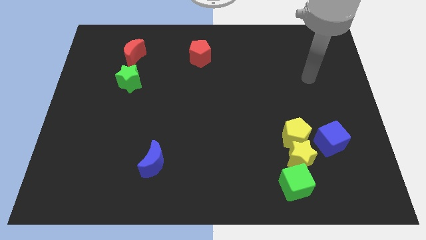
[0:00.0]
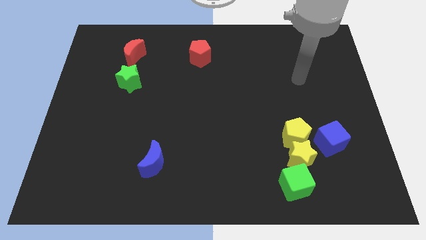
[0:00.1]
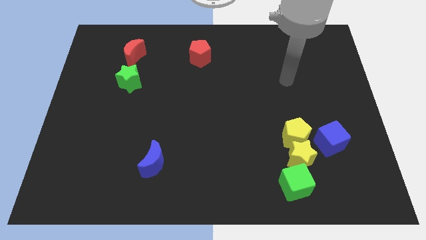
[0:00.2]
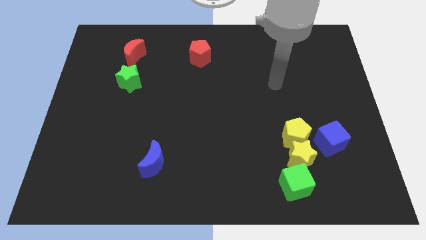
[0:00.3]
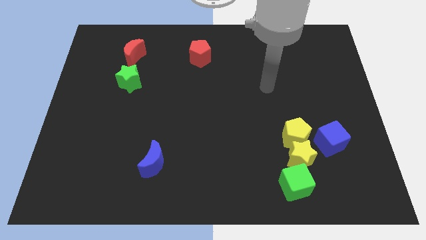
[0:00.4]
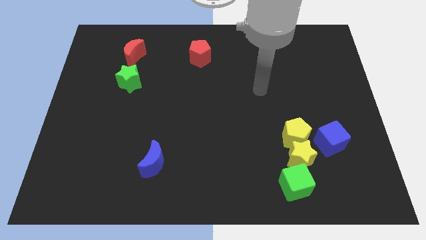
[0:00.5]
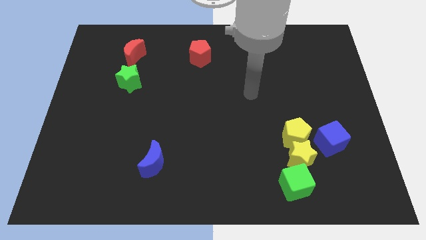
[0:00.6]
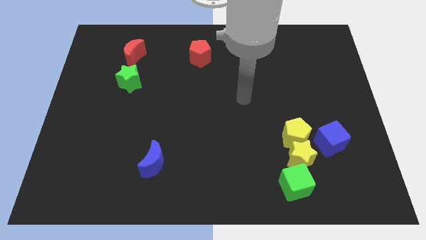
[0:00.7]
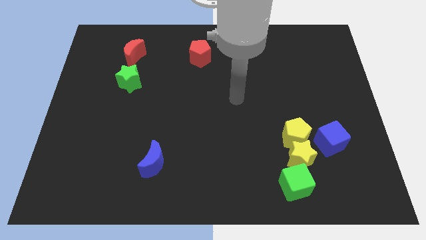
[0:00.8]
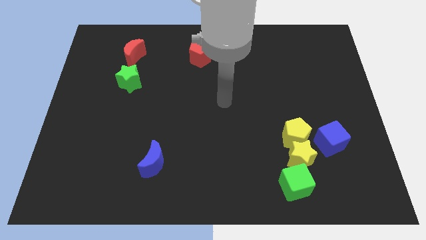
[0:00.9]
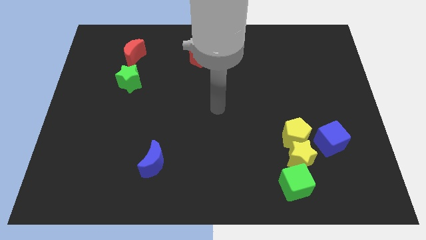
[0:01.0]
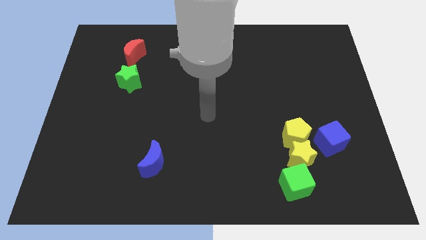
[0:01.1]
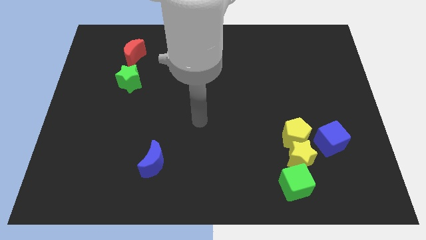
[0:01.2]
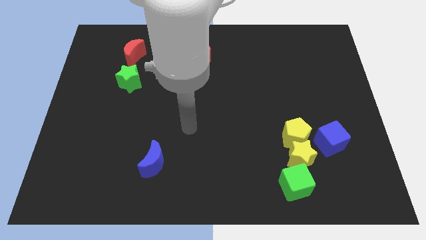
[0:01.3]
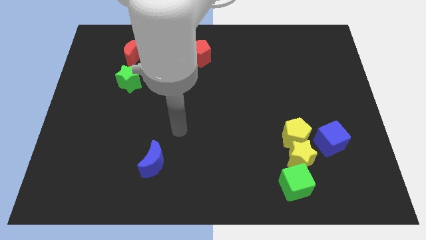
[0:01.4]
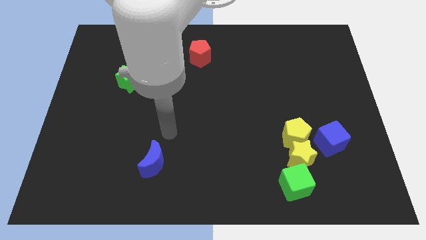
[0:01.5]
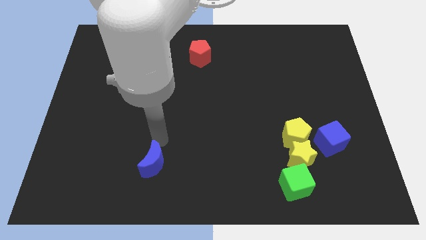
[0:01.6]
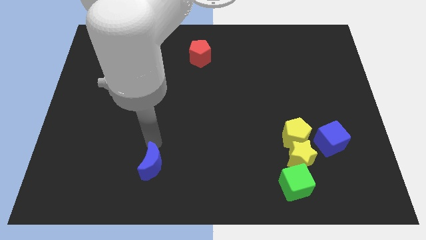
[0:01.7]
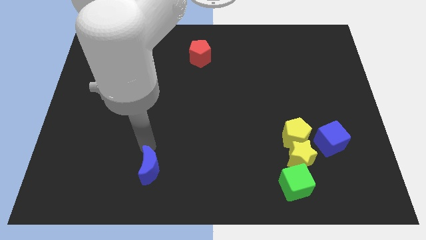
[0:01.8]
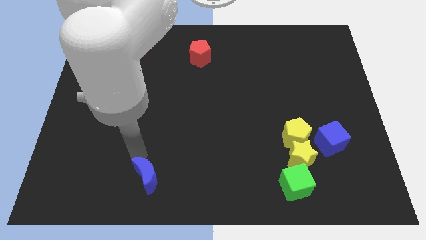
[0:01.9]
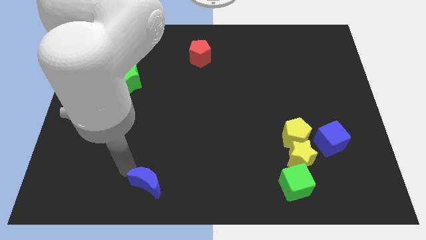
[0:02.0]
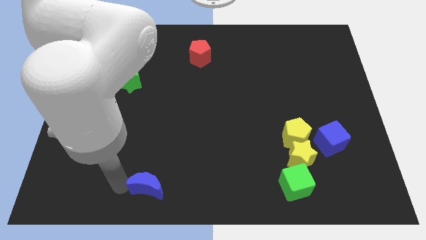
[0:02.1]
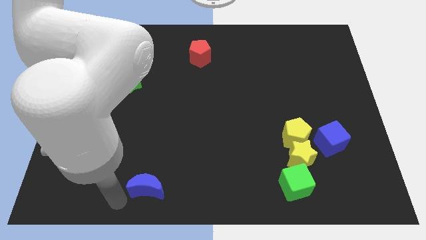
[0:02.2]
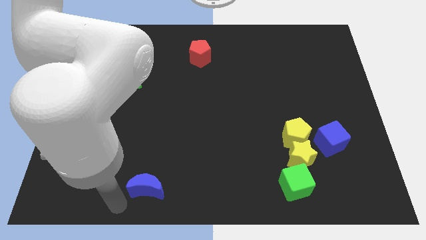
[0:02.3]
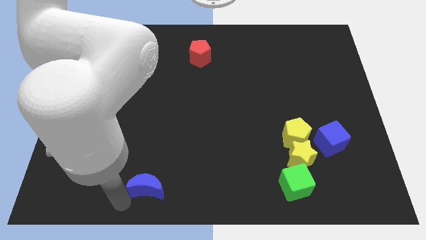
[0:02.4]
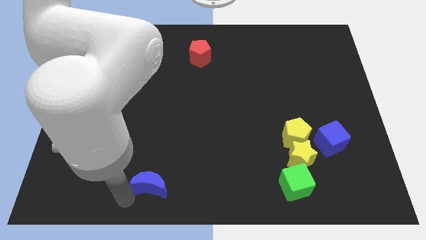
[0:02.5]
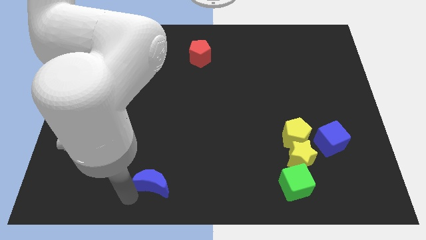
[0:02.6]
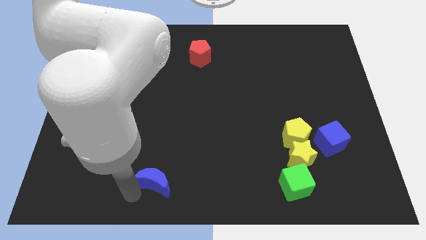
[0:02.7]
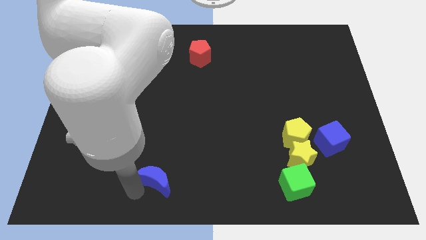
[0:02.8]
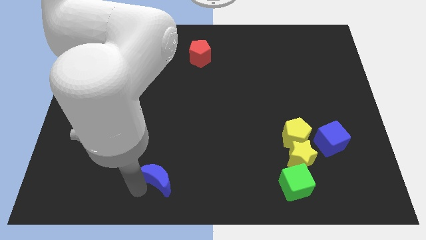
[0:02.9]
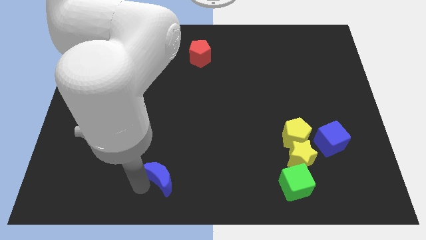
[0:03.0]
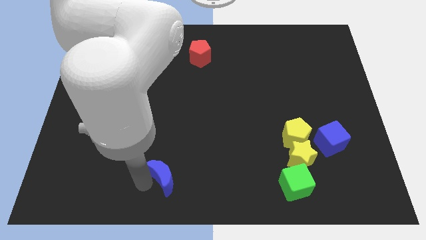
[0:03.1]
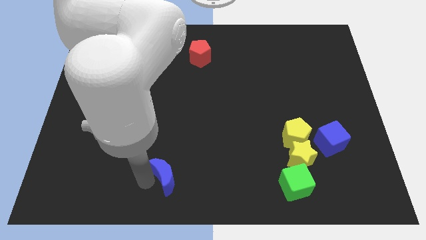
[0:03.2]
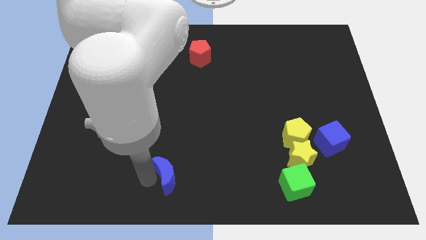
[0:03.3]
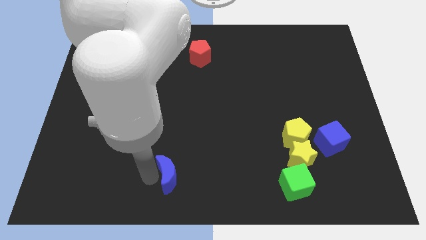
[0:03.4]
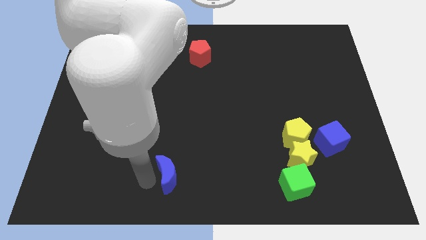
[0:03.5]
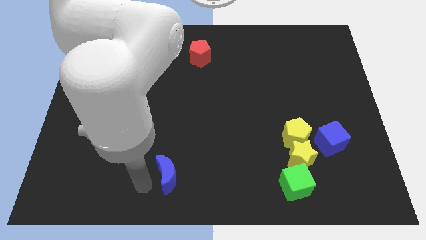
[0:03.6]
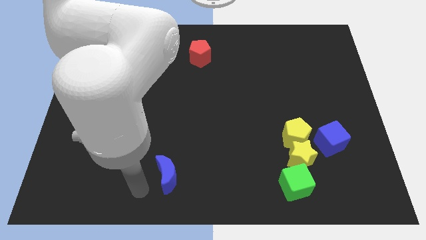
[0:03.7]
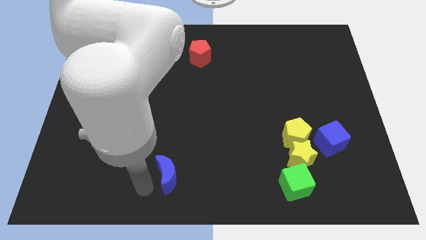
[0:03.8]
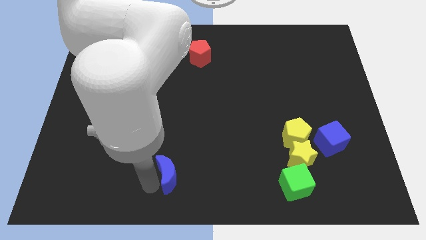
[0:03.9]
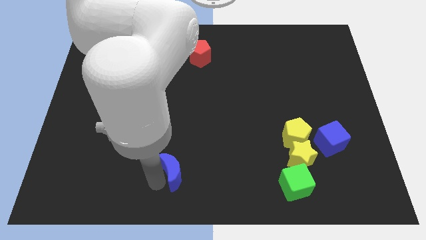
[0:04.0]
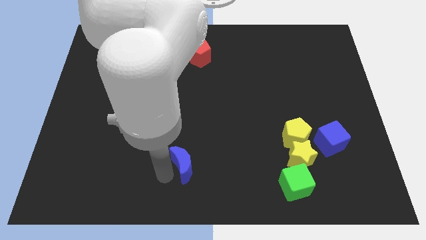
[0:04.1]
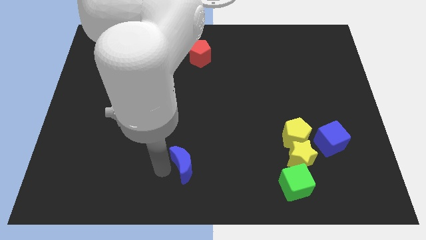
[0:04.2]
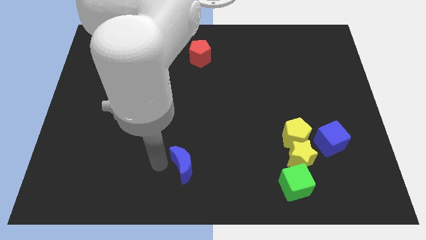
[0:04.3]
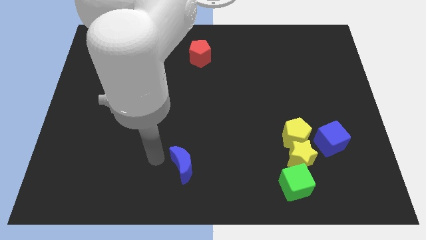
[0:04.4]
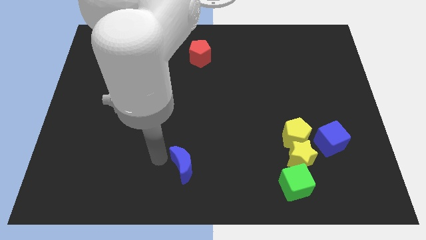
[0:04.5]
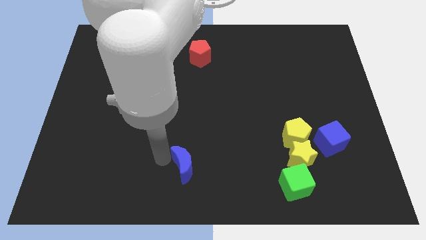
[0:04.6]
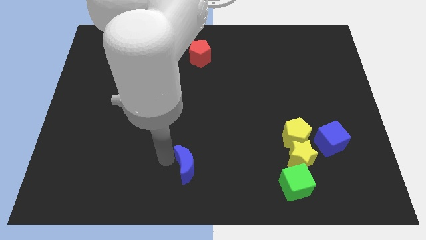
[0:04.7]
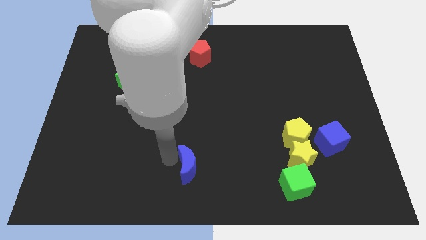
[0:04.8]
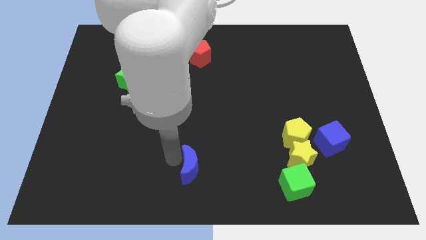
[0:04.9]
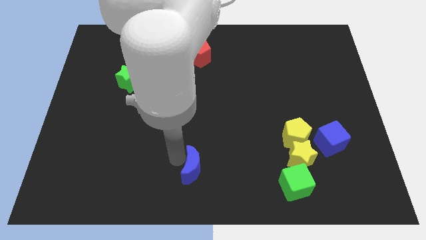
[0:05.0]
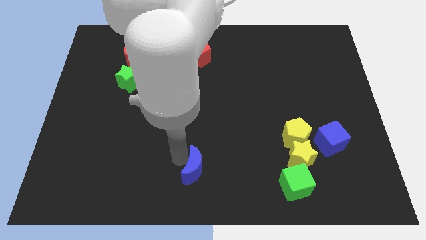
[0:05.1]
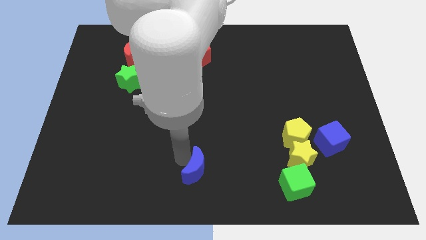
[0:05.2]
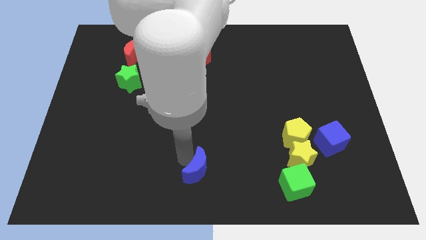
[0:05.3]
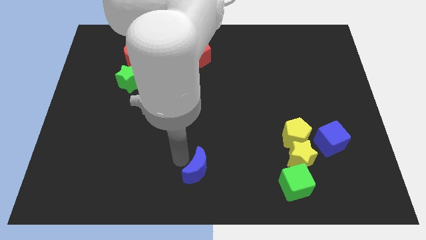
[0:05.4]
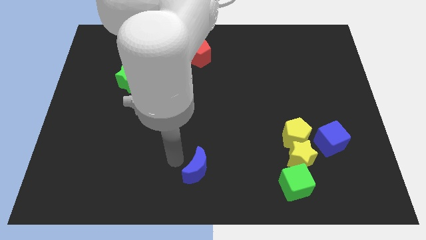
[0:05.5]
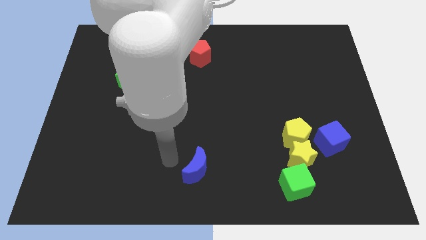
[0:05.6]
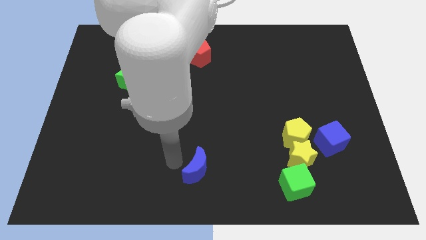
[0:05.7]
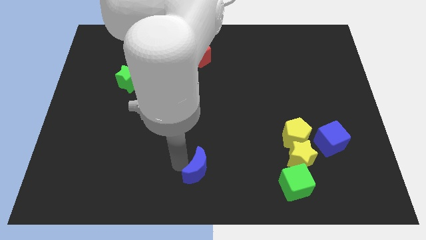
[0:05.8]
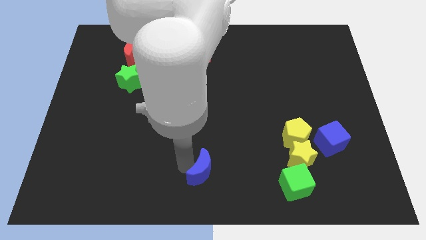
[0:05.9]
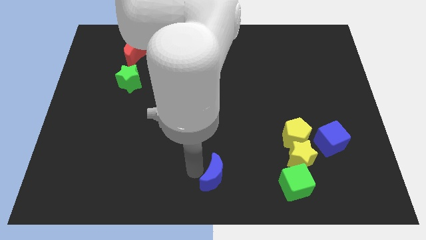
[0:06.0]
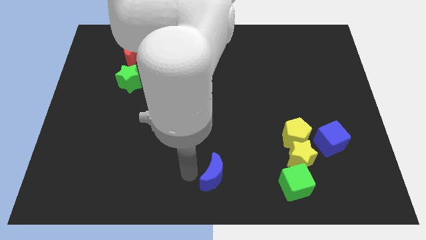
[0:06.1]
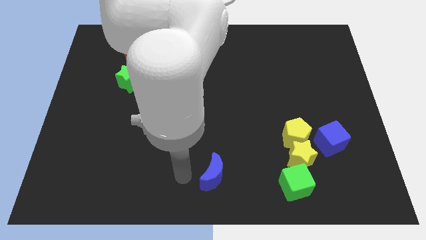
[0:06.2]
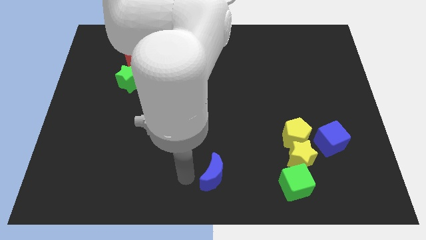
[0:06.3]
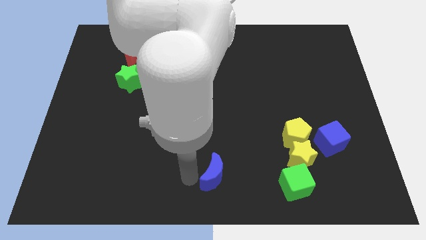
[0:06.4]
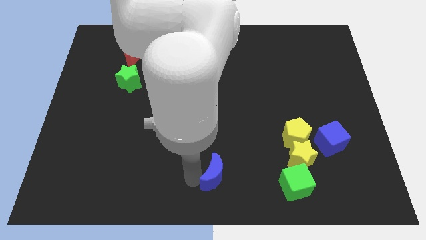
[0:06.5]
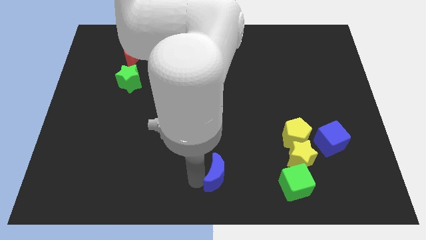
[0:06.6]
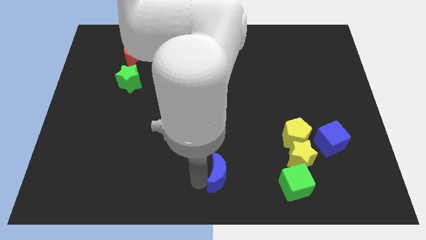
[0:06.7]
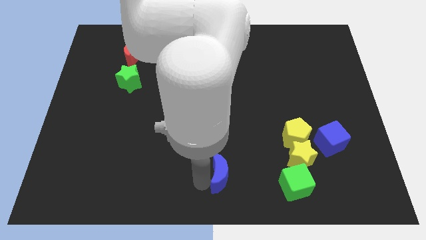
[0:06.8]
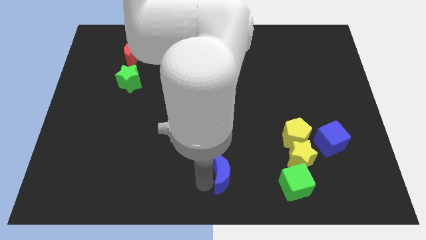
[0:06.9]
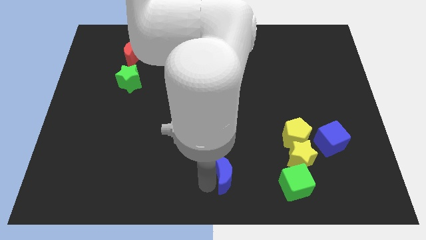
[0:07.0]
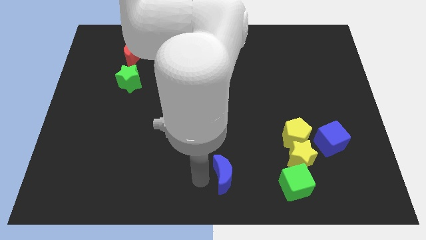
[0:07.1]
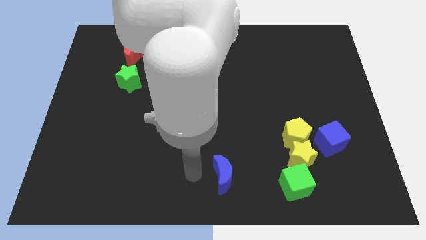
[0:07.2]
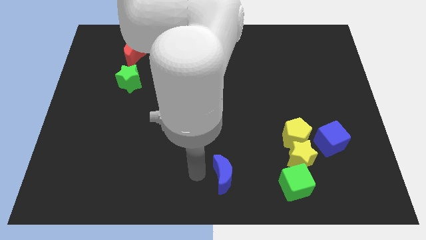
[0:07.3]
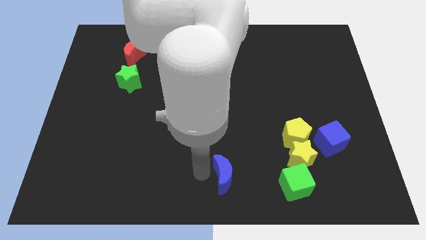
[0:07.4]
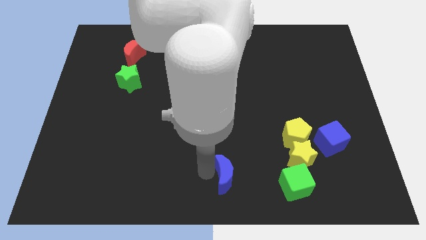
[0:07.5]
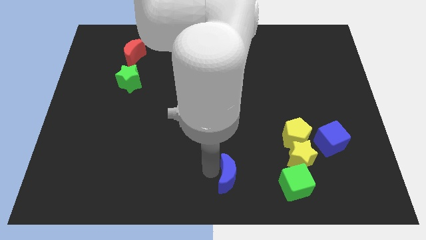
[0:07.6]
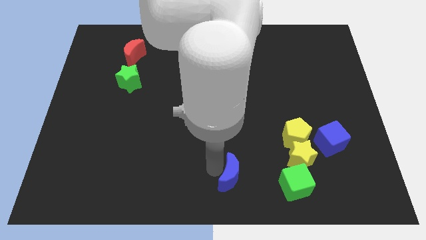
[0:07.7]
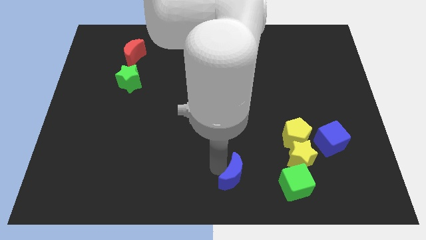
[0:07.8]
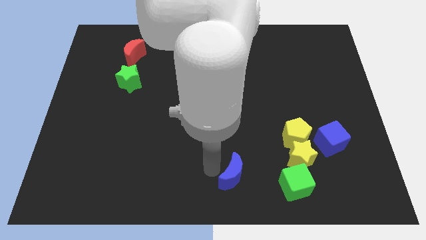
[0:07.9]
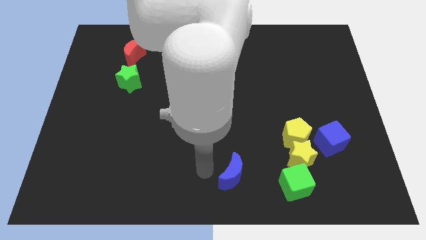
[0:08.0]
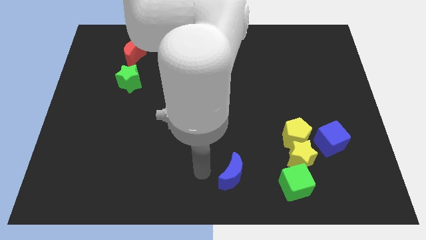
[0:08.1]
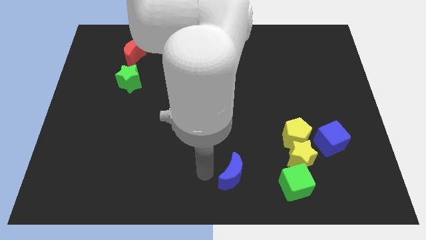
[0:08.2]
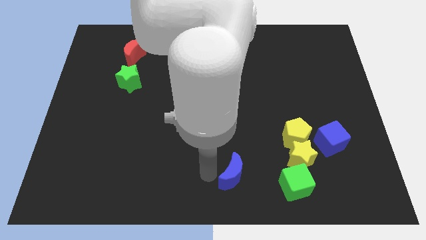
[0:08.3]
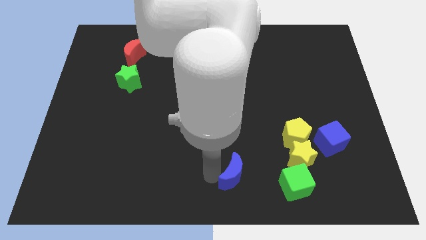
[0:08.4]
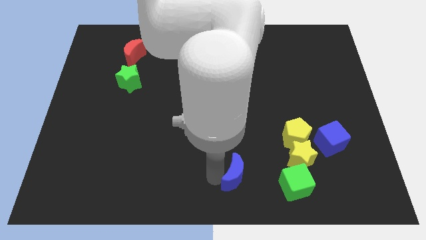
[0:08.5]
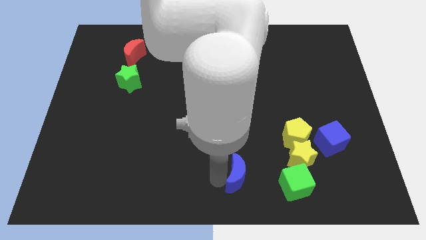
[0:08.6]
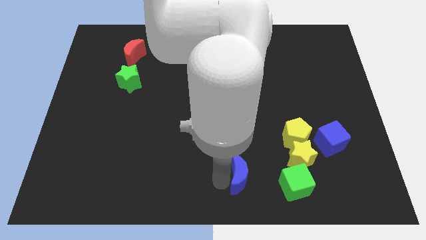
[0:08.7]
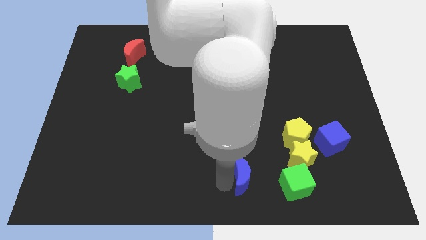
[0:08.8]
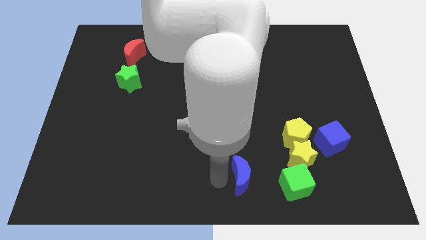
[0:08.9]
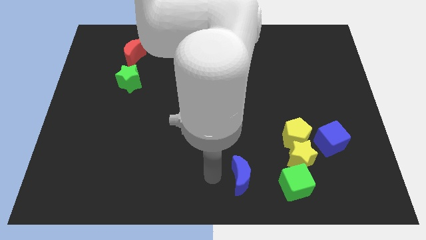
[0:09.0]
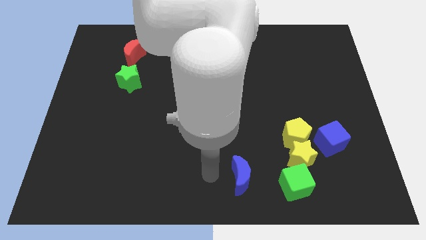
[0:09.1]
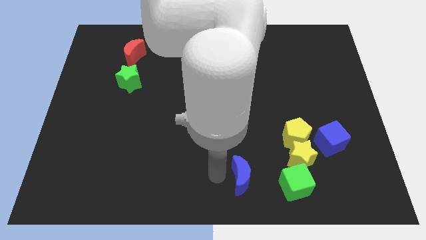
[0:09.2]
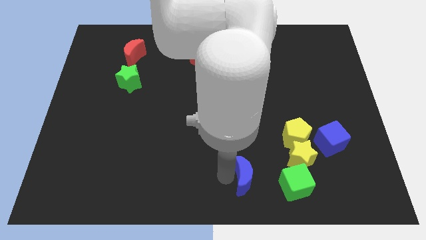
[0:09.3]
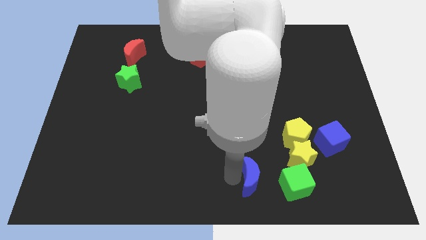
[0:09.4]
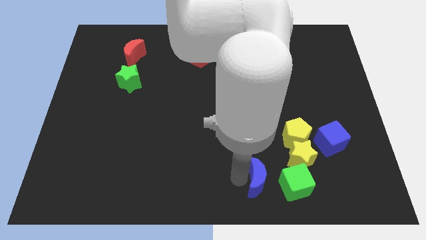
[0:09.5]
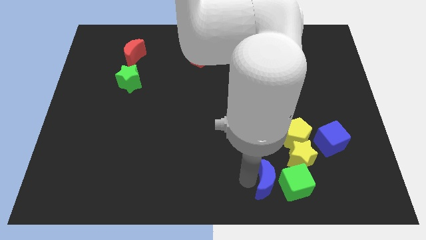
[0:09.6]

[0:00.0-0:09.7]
move the blue moon close to the green cube
